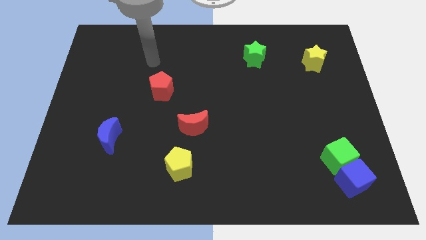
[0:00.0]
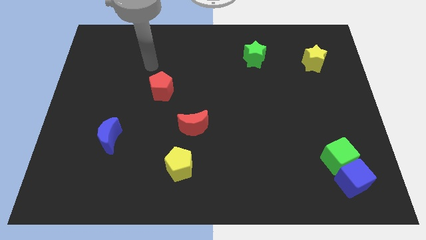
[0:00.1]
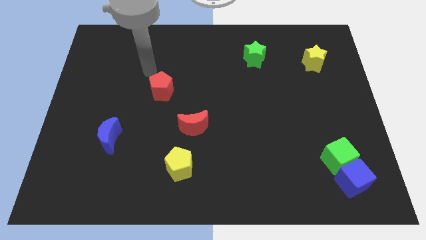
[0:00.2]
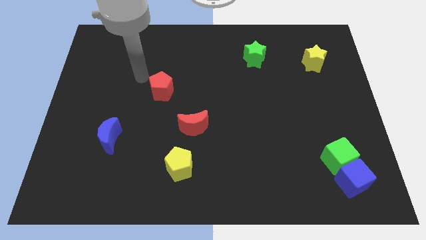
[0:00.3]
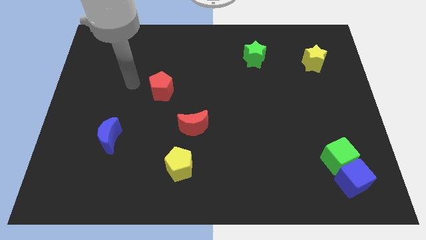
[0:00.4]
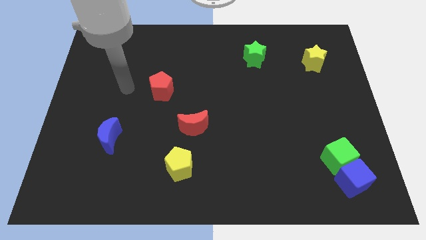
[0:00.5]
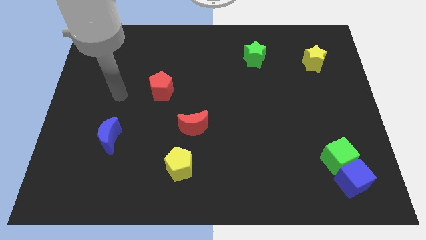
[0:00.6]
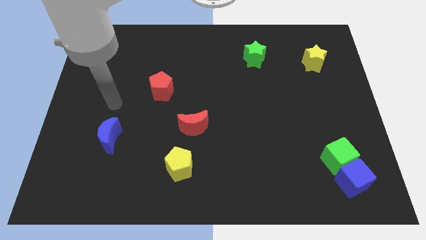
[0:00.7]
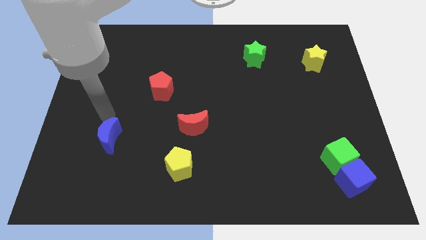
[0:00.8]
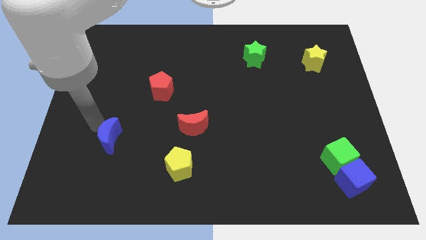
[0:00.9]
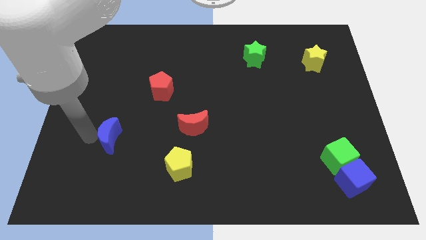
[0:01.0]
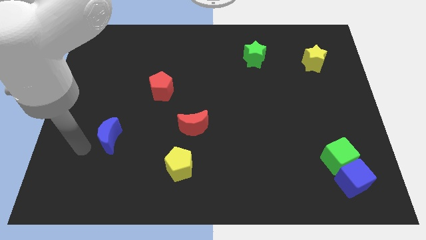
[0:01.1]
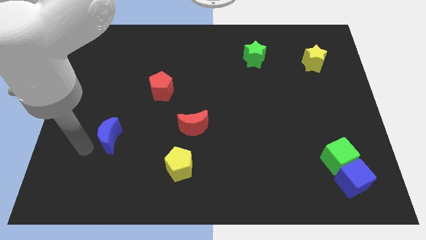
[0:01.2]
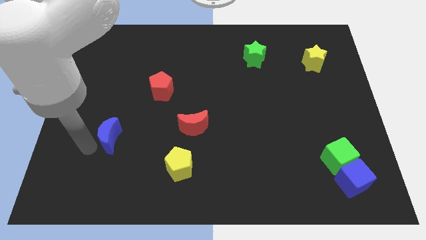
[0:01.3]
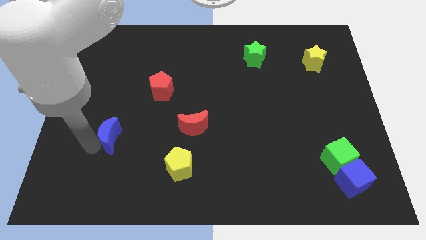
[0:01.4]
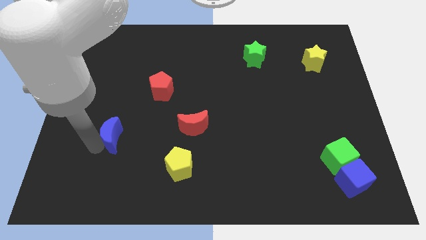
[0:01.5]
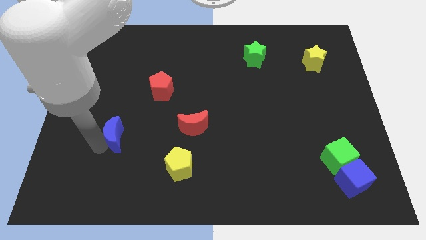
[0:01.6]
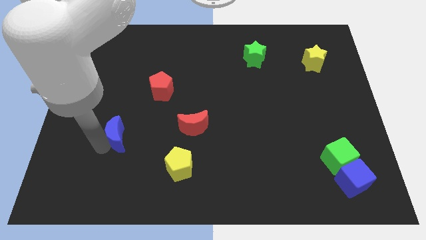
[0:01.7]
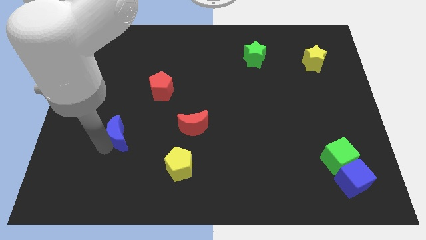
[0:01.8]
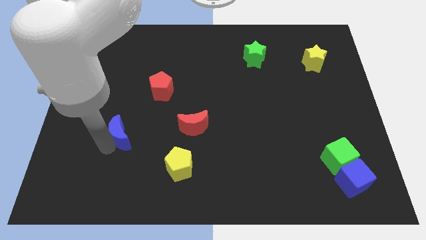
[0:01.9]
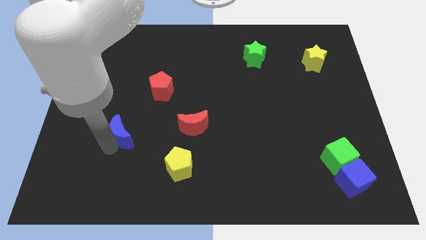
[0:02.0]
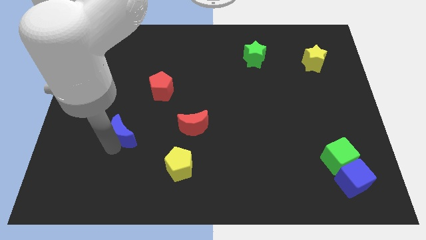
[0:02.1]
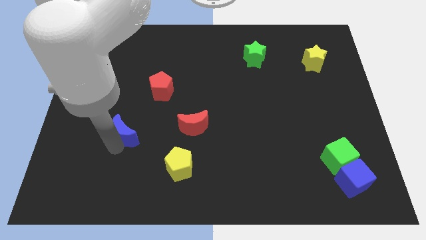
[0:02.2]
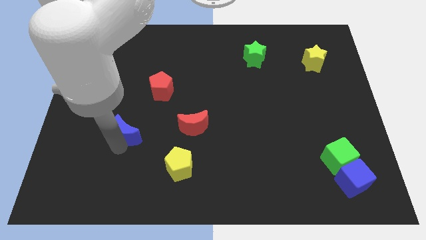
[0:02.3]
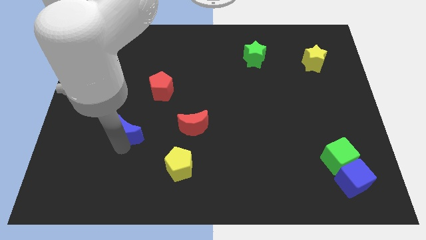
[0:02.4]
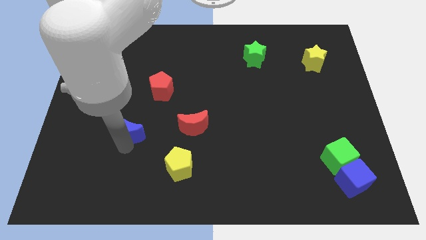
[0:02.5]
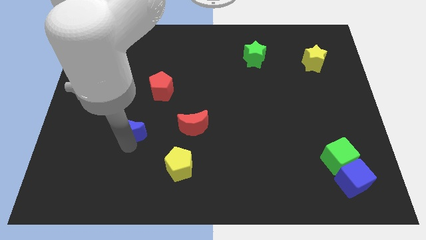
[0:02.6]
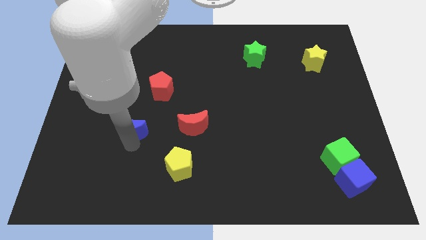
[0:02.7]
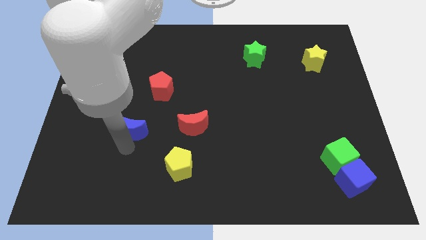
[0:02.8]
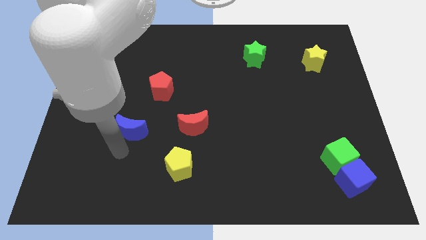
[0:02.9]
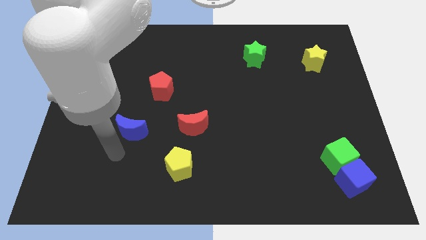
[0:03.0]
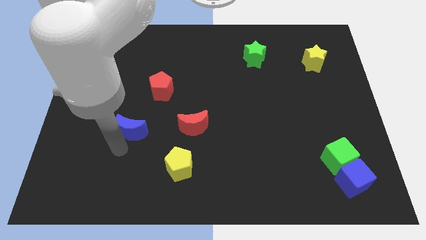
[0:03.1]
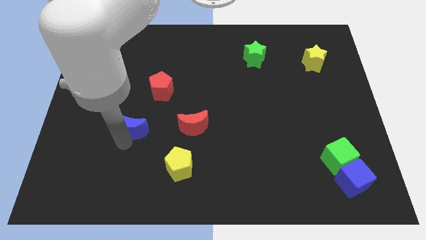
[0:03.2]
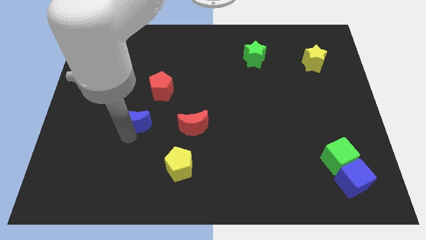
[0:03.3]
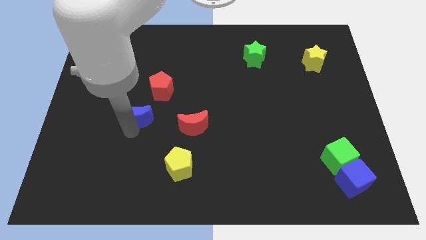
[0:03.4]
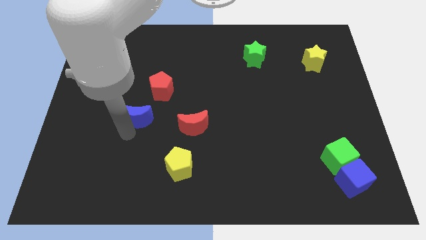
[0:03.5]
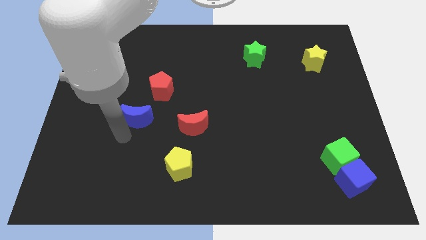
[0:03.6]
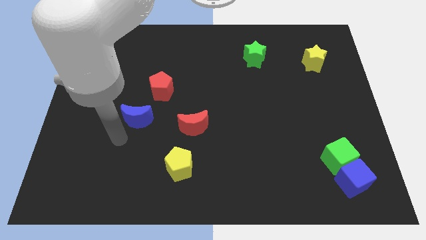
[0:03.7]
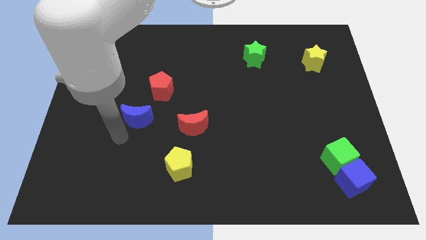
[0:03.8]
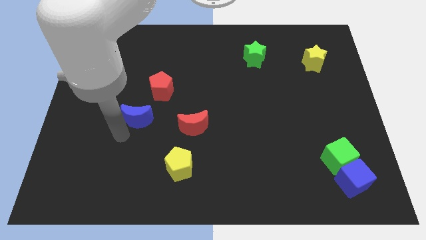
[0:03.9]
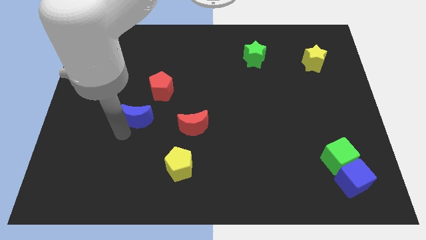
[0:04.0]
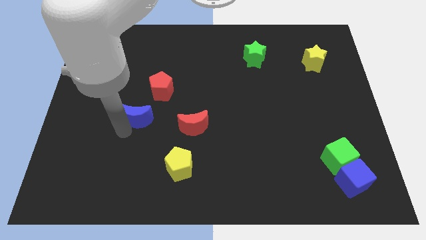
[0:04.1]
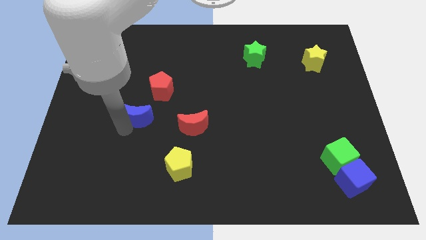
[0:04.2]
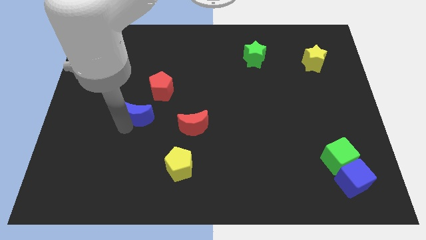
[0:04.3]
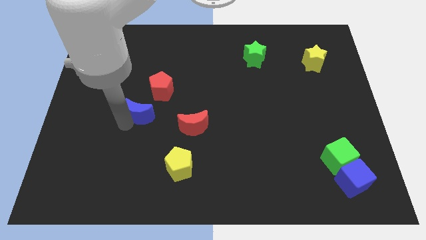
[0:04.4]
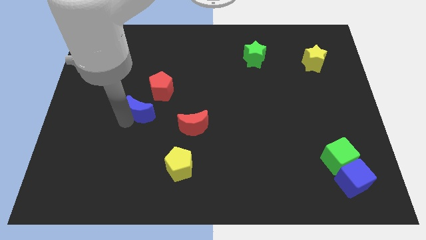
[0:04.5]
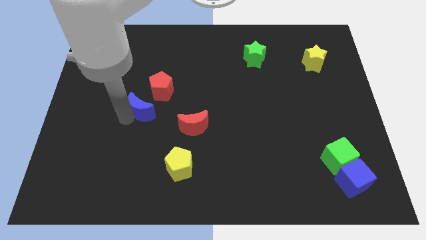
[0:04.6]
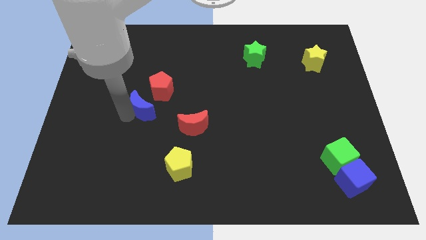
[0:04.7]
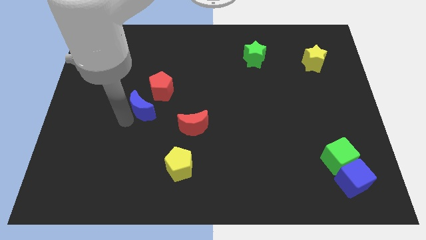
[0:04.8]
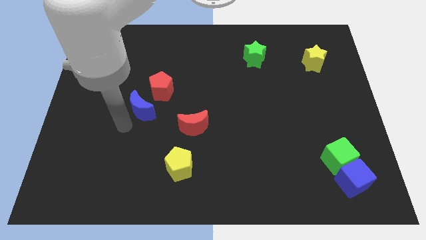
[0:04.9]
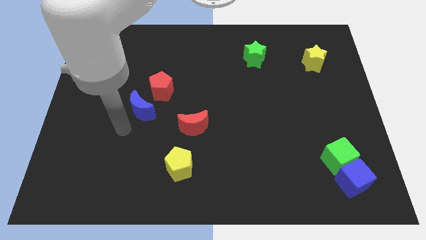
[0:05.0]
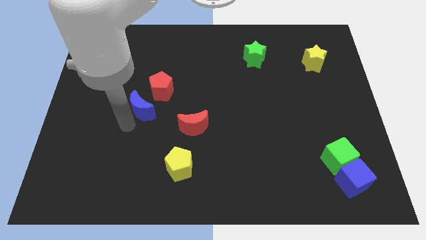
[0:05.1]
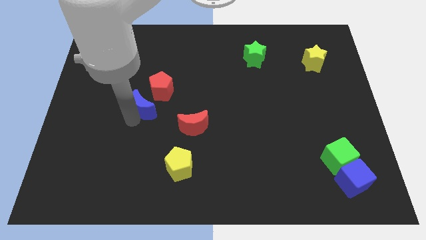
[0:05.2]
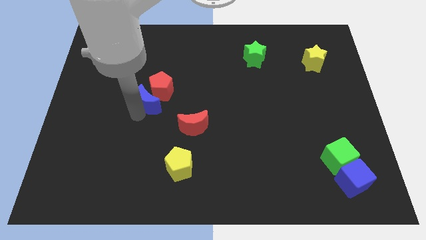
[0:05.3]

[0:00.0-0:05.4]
move the blue moon close to the red pentagon

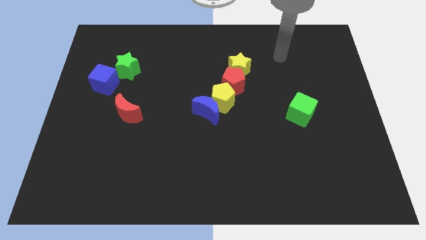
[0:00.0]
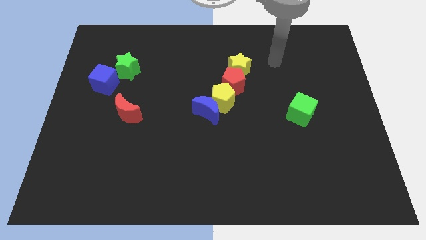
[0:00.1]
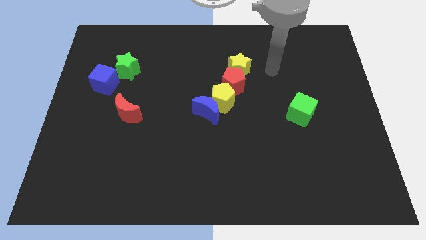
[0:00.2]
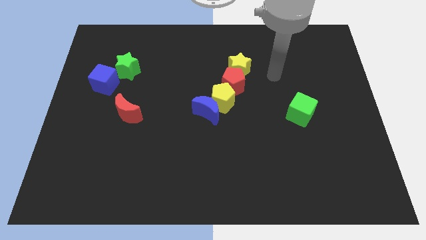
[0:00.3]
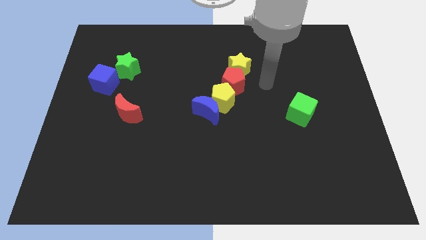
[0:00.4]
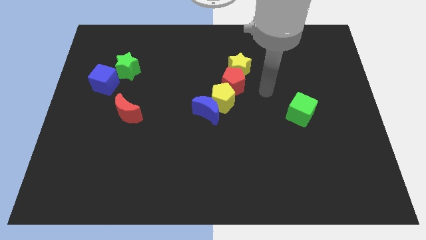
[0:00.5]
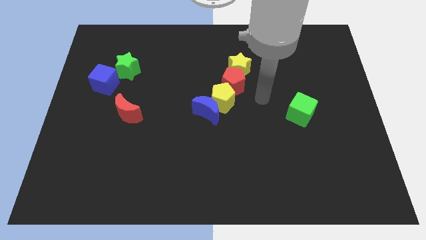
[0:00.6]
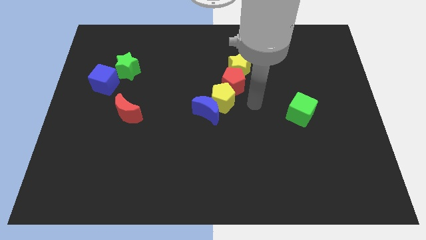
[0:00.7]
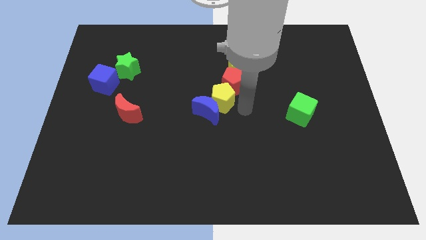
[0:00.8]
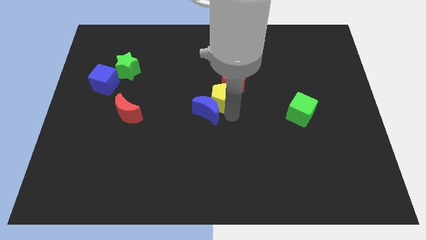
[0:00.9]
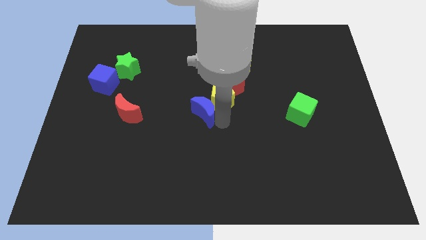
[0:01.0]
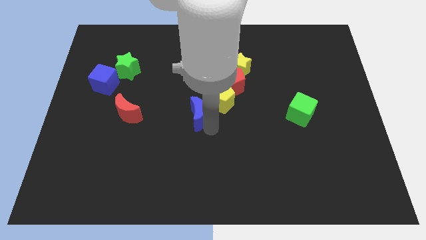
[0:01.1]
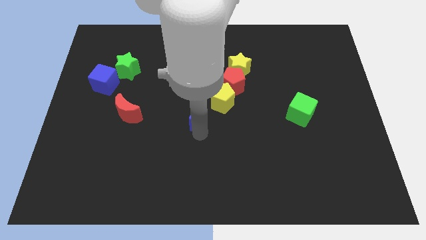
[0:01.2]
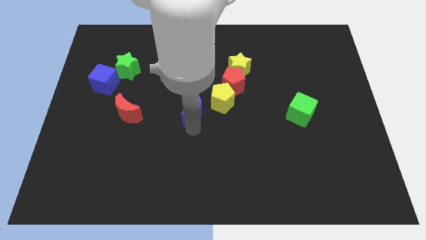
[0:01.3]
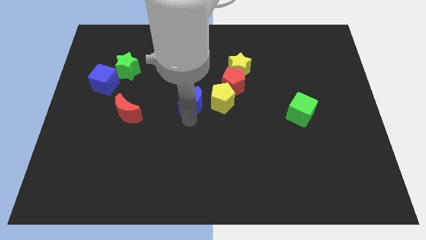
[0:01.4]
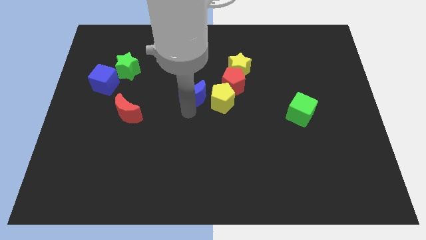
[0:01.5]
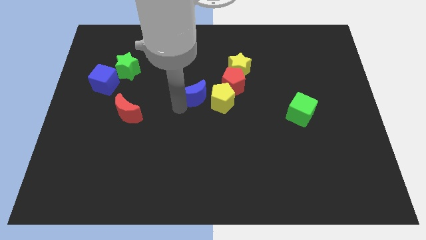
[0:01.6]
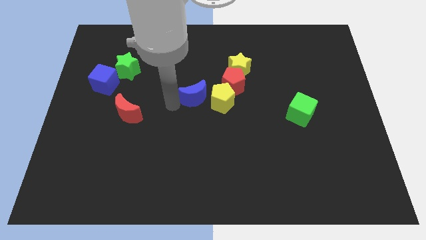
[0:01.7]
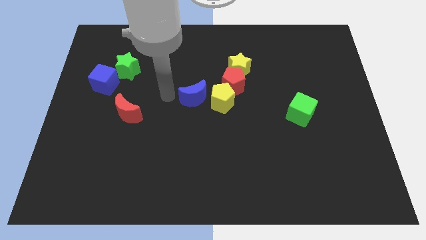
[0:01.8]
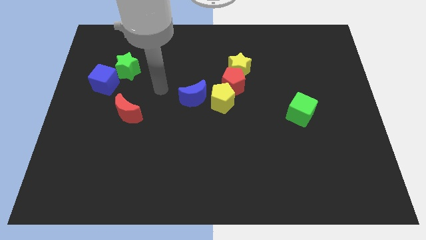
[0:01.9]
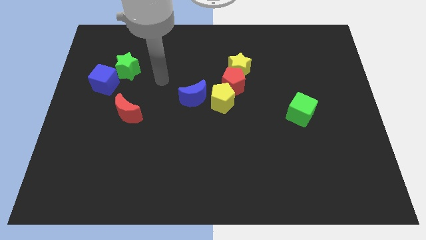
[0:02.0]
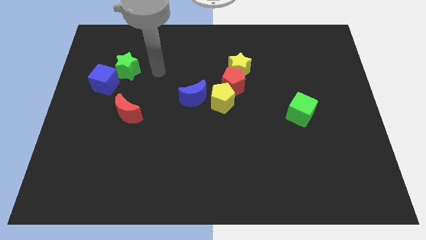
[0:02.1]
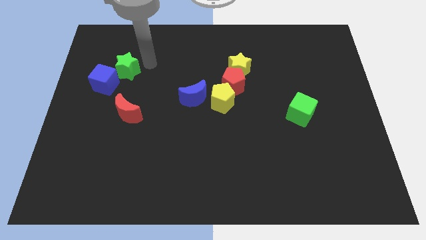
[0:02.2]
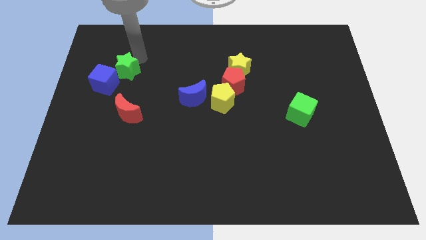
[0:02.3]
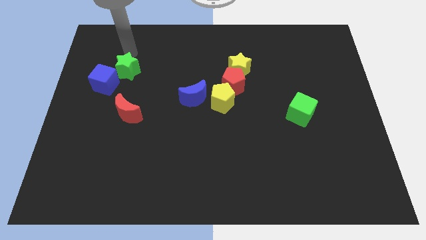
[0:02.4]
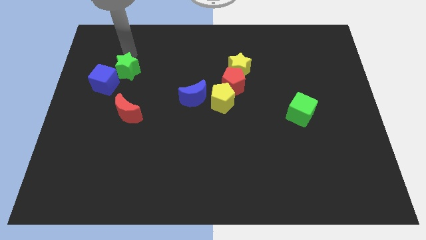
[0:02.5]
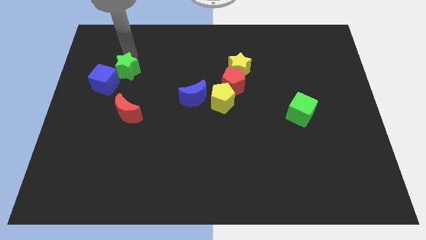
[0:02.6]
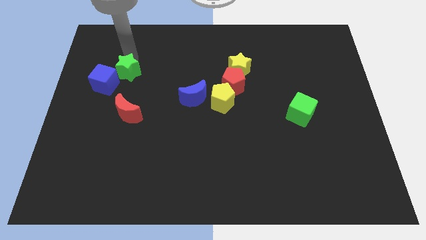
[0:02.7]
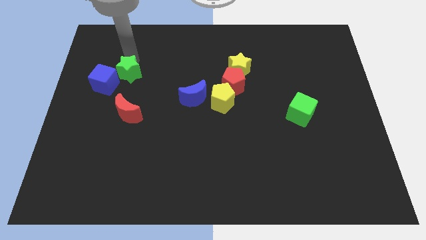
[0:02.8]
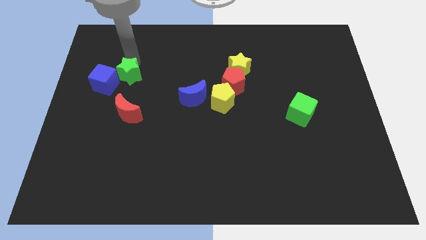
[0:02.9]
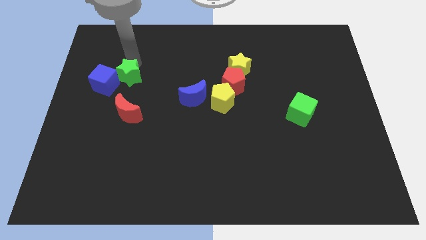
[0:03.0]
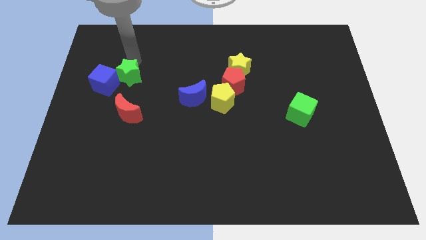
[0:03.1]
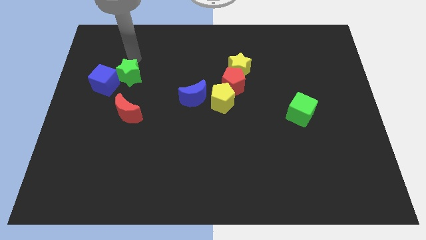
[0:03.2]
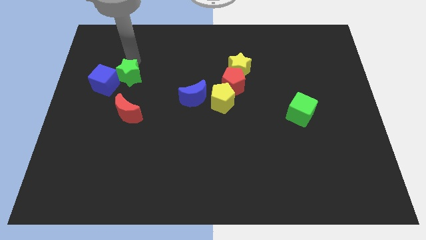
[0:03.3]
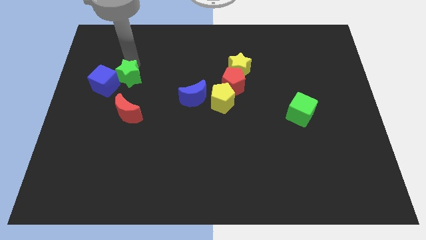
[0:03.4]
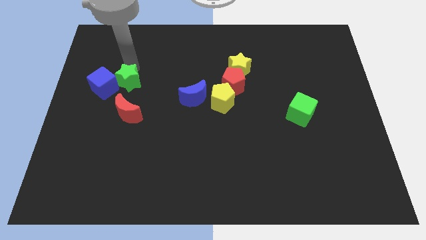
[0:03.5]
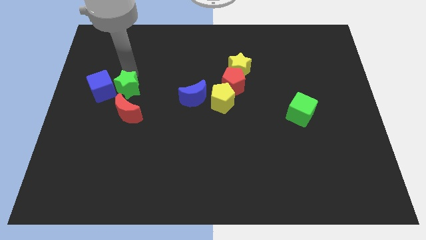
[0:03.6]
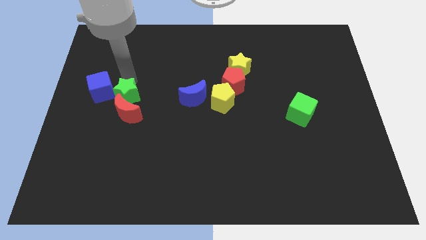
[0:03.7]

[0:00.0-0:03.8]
push the green star to the red moon
